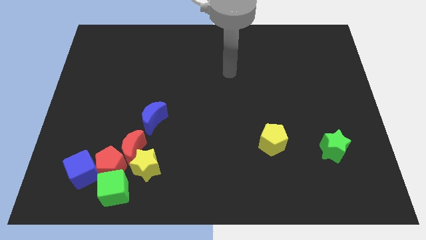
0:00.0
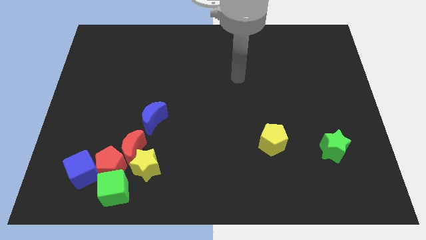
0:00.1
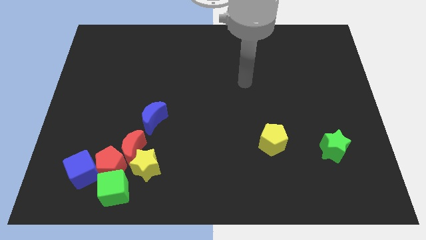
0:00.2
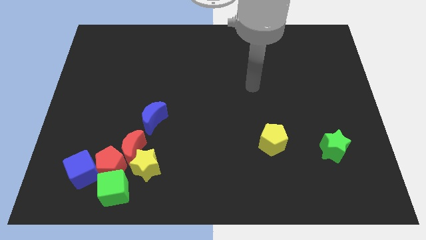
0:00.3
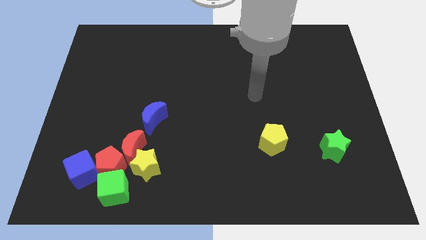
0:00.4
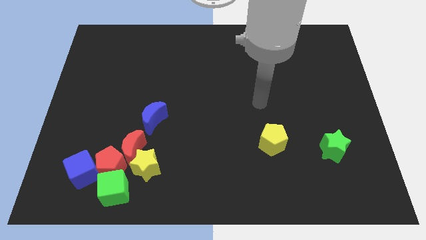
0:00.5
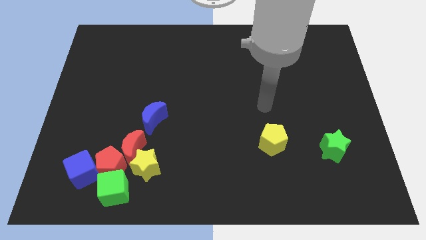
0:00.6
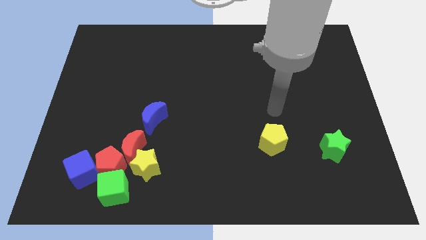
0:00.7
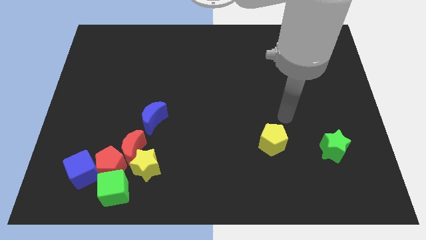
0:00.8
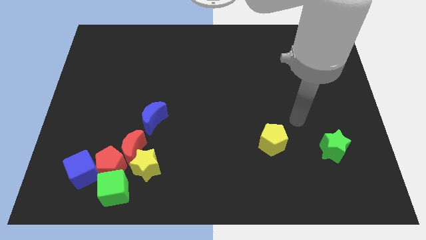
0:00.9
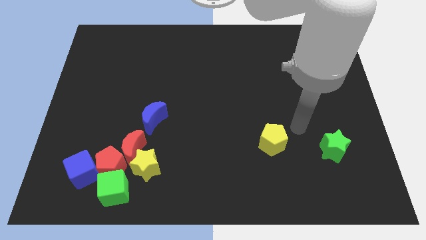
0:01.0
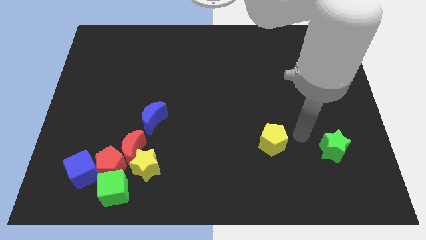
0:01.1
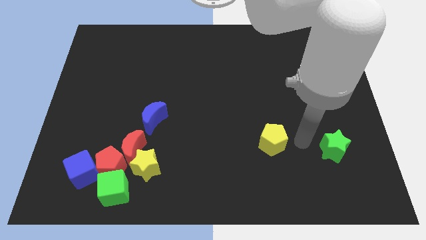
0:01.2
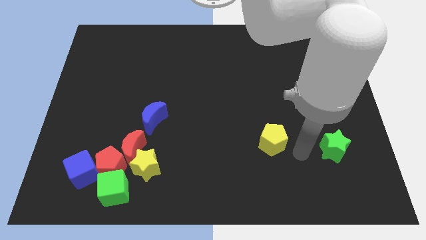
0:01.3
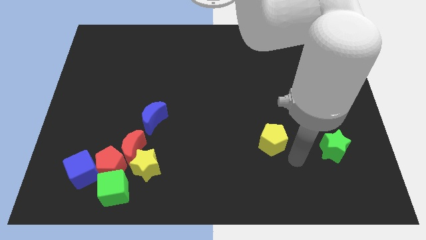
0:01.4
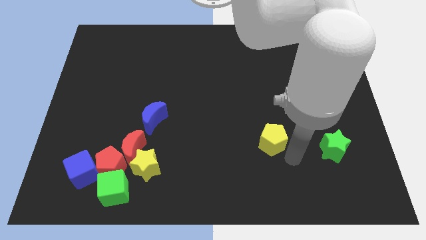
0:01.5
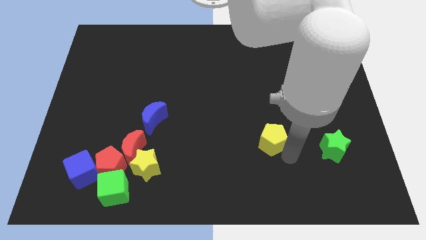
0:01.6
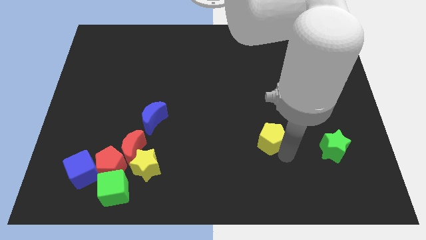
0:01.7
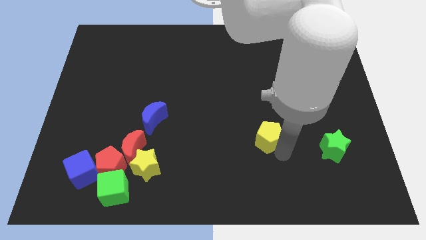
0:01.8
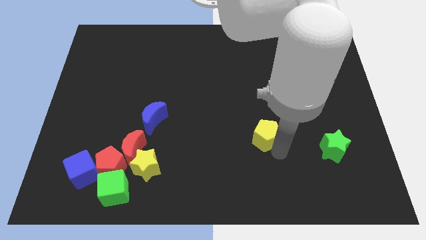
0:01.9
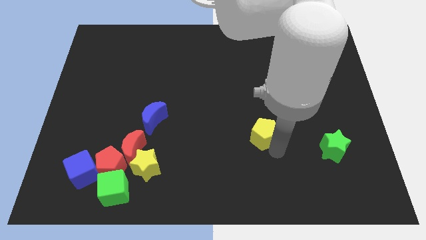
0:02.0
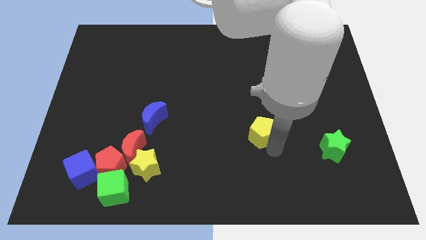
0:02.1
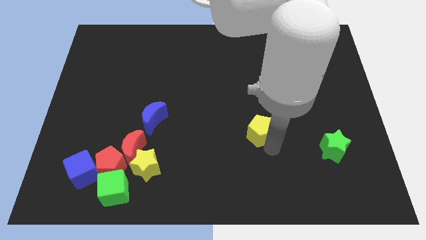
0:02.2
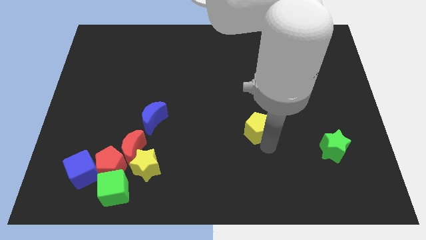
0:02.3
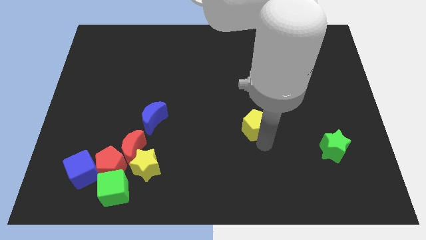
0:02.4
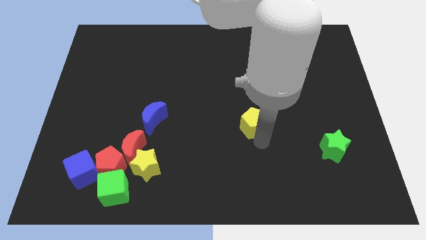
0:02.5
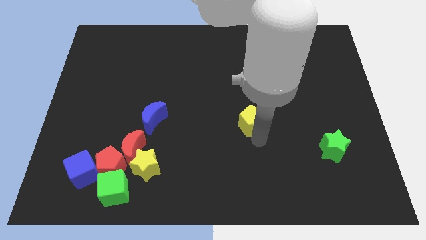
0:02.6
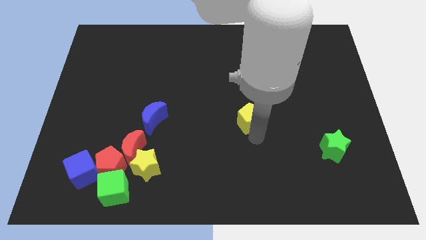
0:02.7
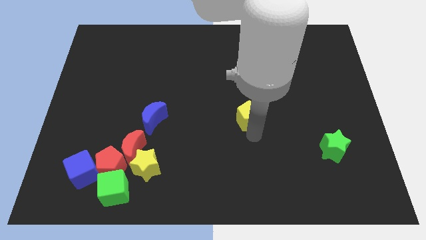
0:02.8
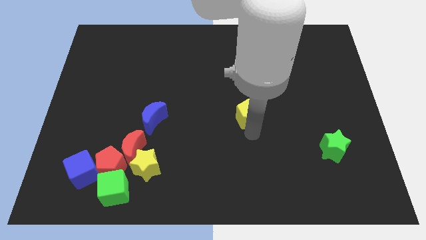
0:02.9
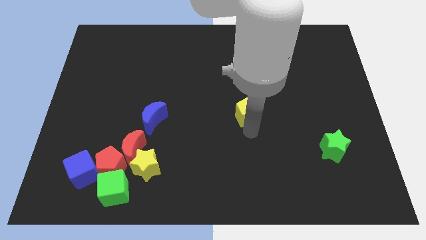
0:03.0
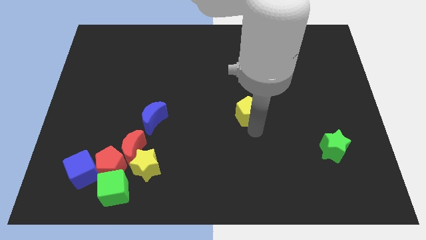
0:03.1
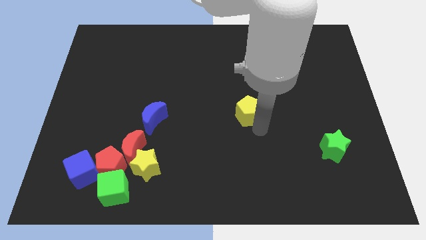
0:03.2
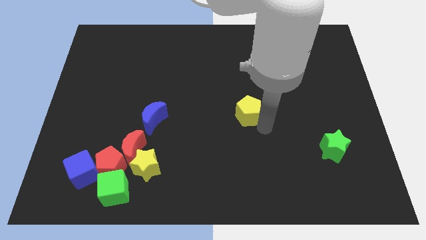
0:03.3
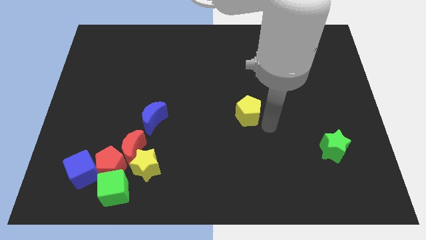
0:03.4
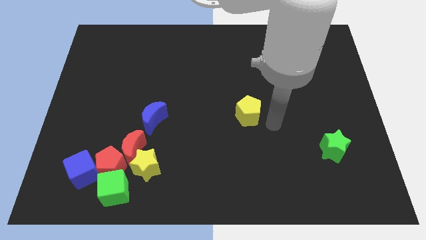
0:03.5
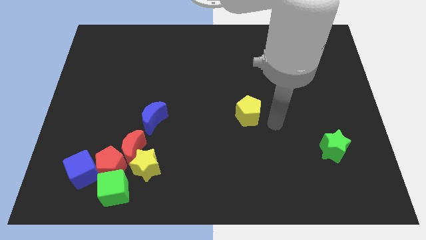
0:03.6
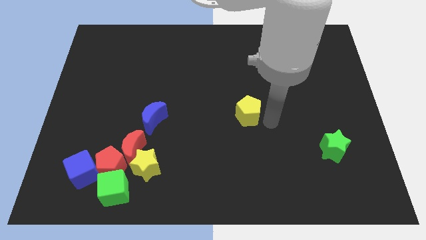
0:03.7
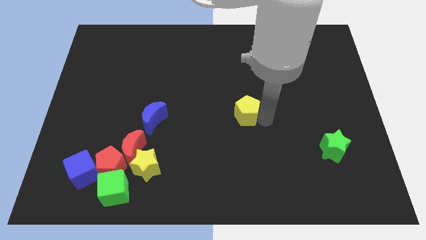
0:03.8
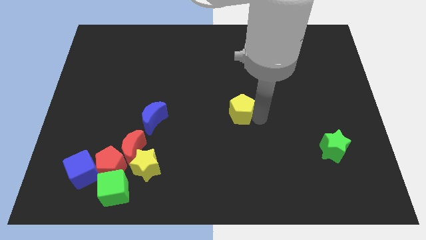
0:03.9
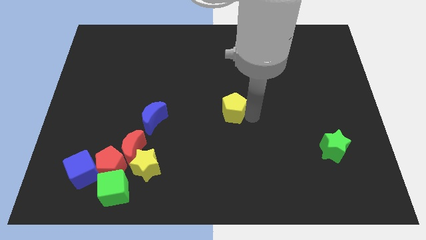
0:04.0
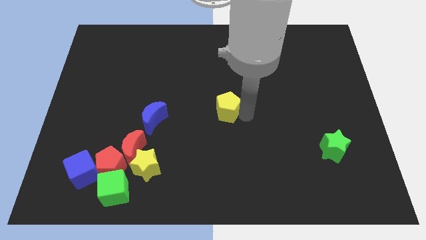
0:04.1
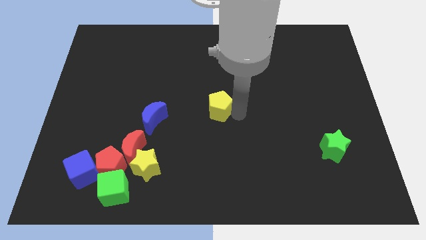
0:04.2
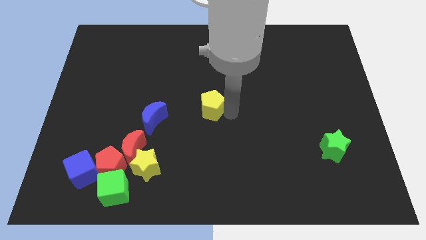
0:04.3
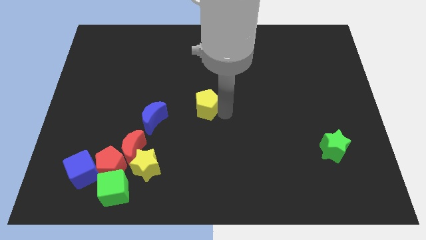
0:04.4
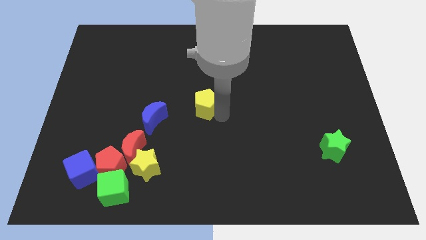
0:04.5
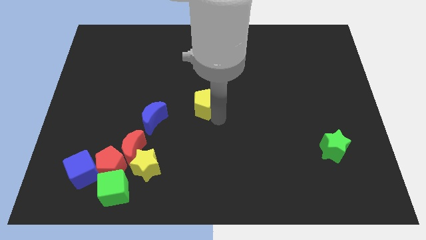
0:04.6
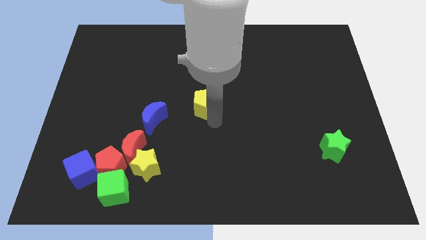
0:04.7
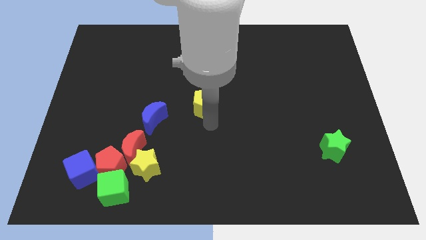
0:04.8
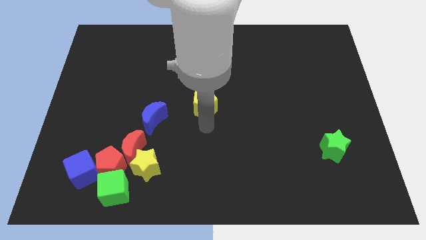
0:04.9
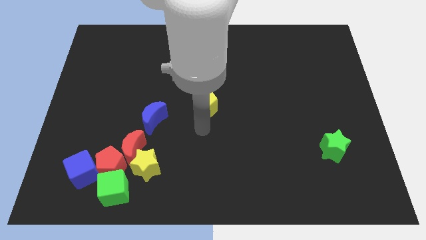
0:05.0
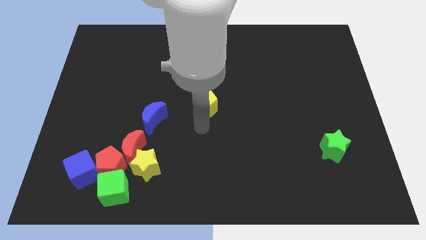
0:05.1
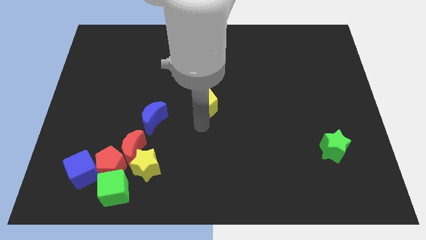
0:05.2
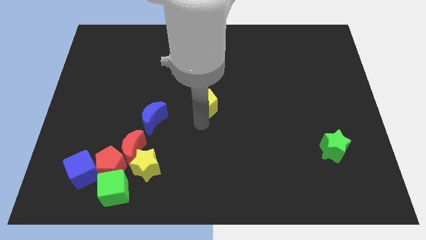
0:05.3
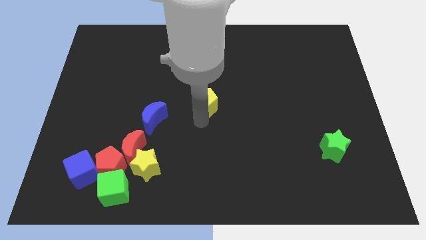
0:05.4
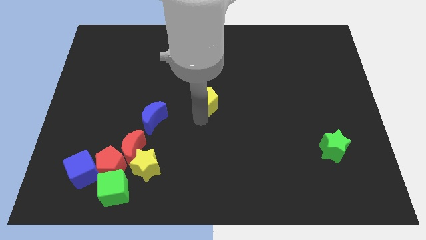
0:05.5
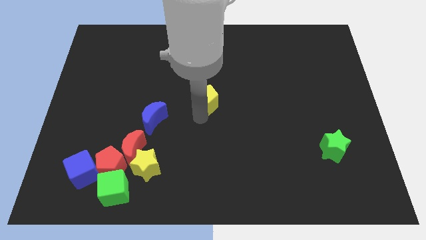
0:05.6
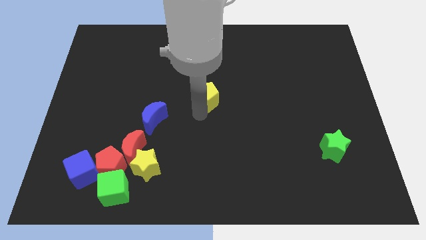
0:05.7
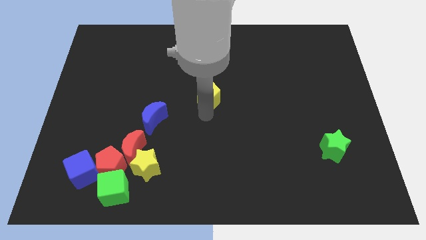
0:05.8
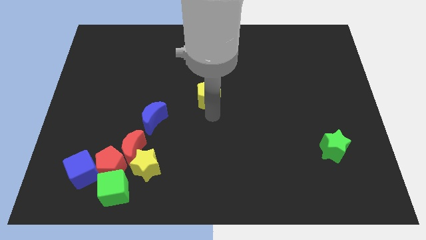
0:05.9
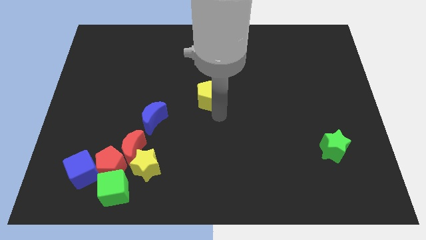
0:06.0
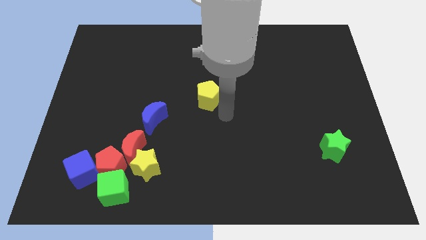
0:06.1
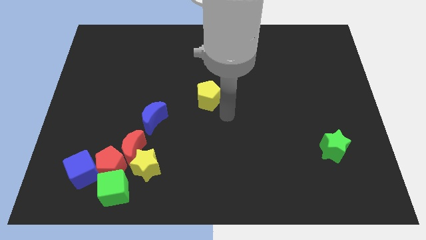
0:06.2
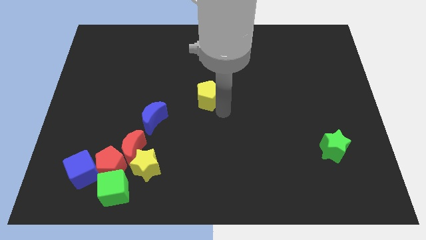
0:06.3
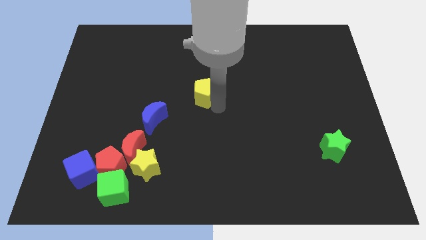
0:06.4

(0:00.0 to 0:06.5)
push the yellow pentagon up and to the left

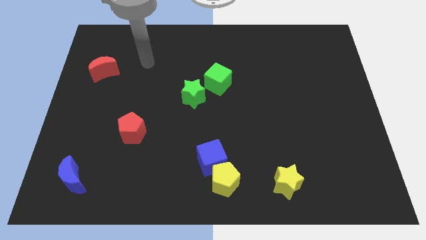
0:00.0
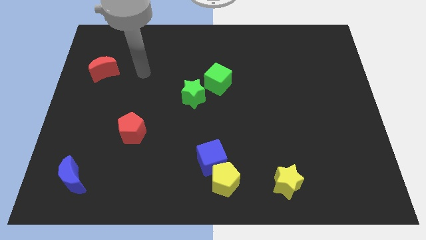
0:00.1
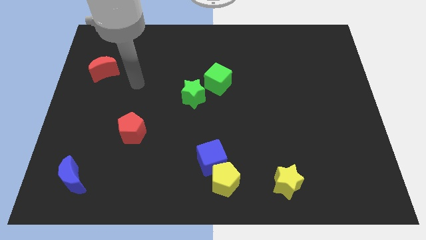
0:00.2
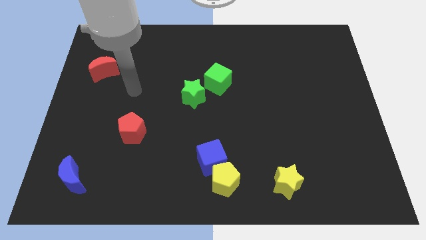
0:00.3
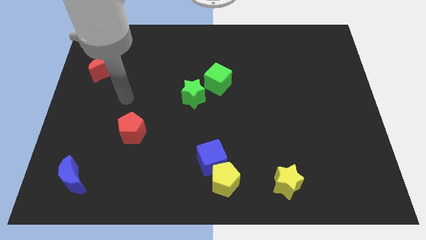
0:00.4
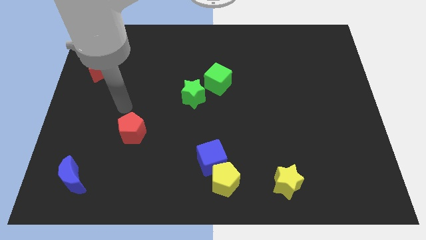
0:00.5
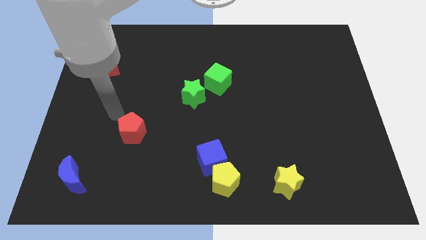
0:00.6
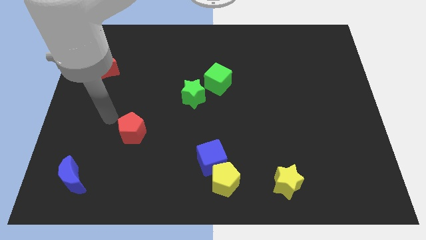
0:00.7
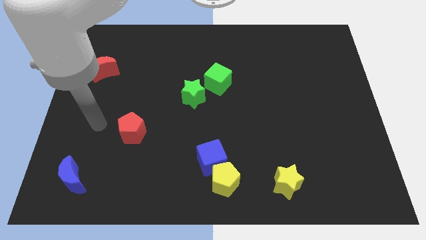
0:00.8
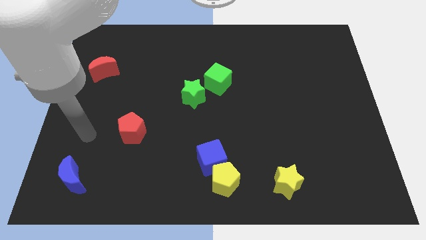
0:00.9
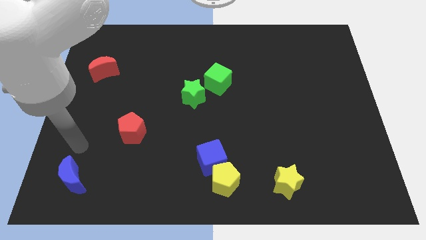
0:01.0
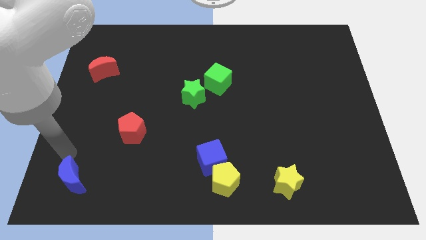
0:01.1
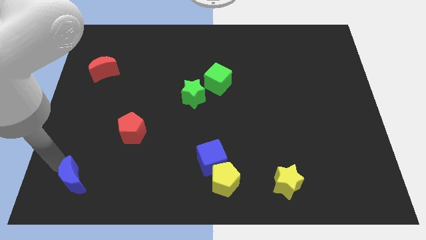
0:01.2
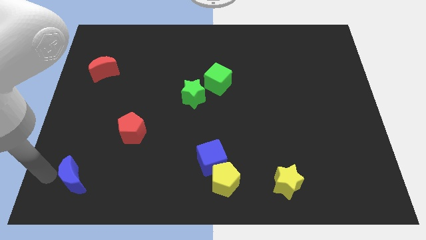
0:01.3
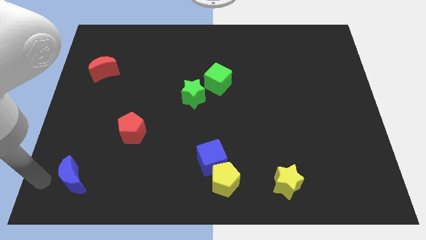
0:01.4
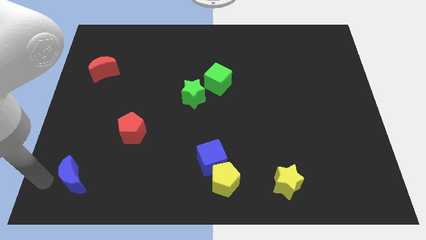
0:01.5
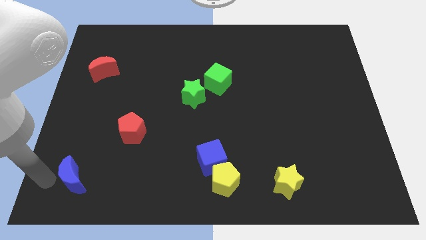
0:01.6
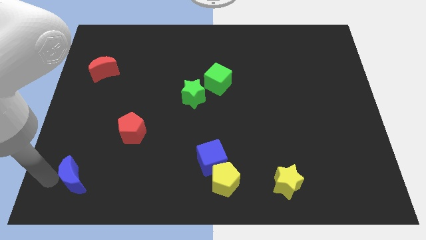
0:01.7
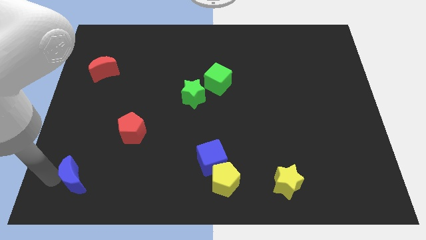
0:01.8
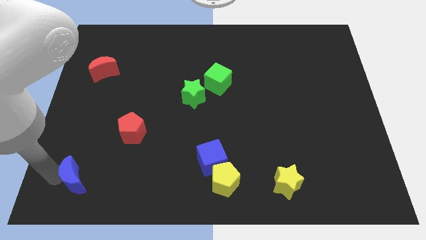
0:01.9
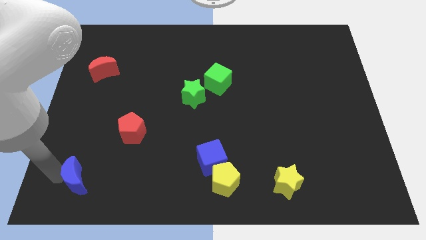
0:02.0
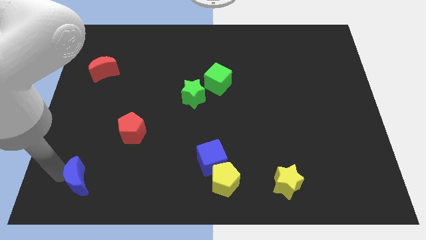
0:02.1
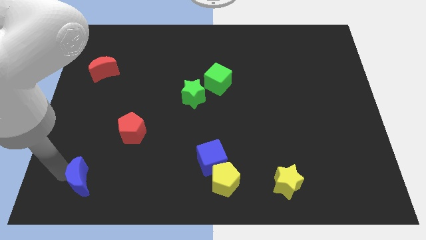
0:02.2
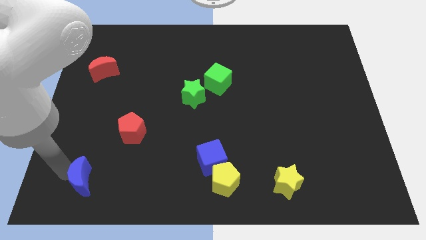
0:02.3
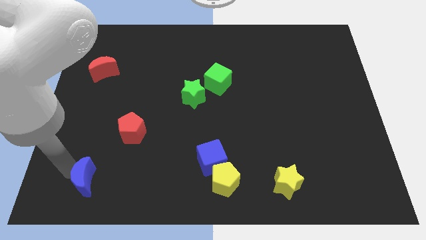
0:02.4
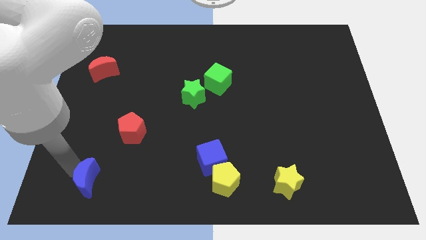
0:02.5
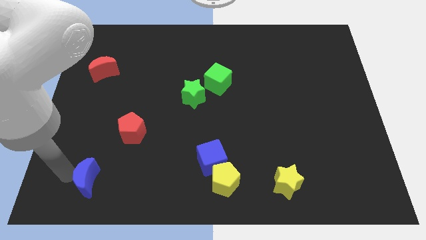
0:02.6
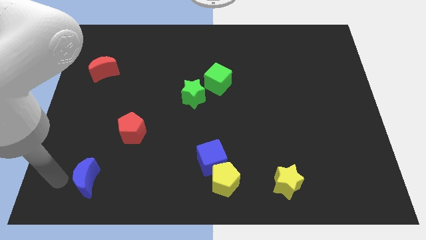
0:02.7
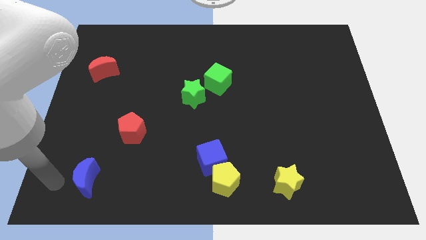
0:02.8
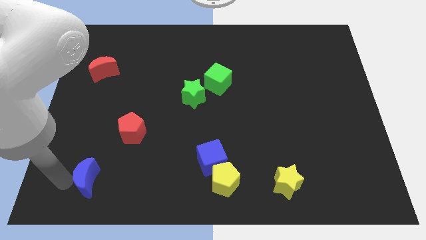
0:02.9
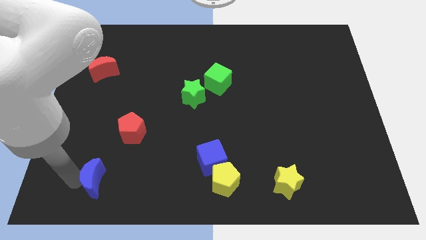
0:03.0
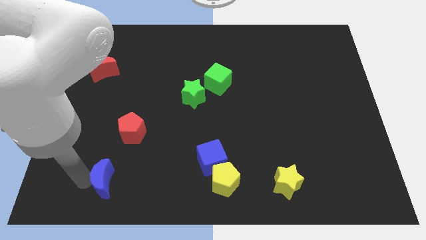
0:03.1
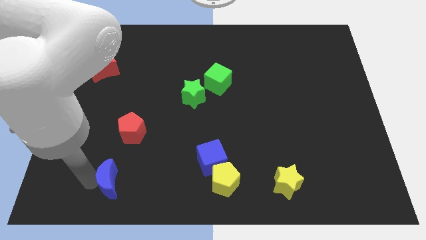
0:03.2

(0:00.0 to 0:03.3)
slide the blue moon somewhat right
